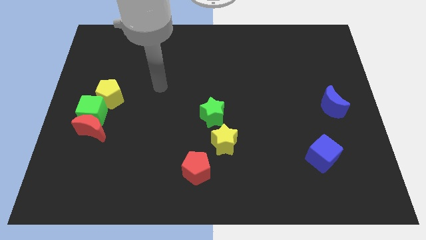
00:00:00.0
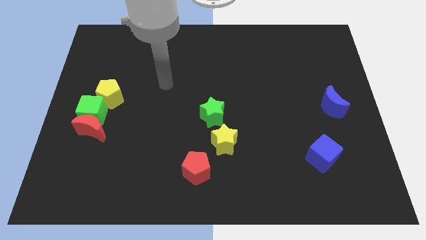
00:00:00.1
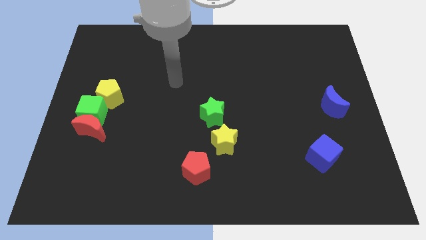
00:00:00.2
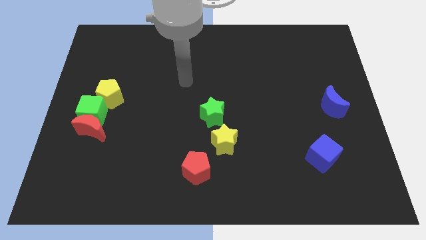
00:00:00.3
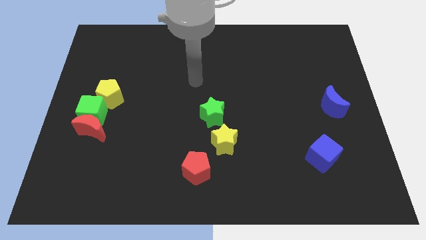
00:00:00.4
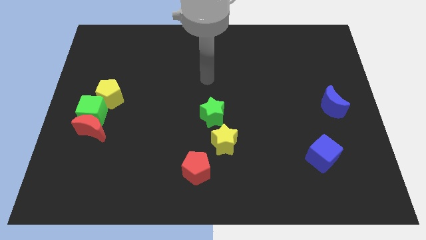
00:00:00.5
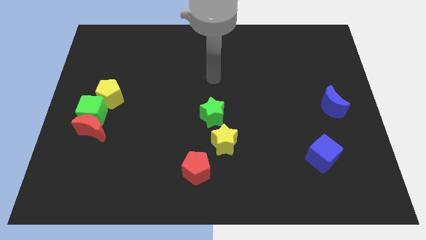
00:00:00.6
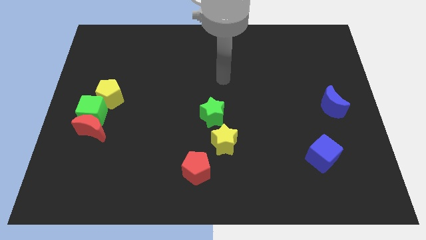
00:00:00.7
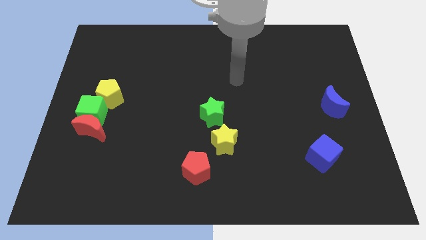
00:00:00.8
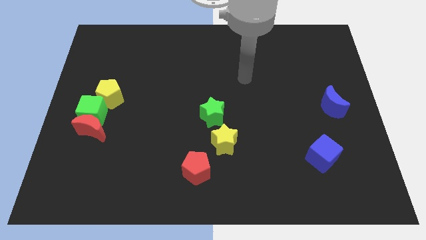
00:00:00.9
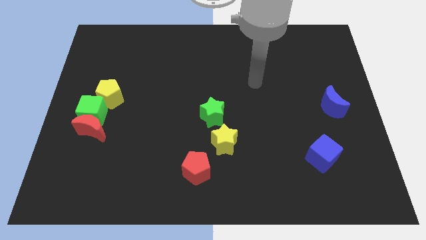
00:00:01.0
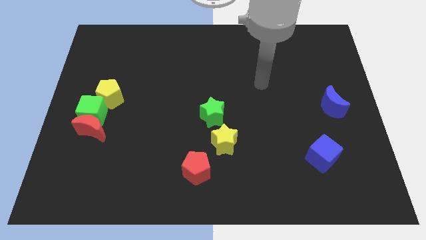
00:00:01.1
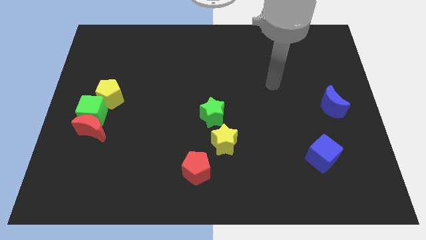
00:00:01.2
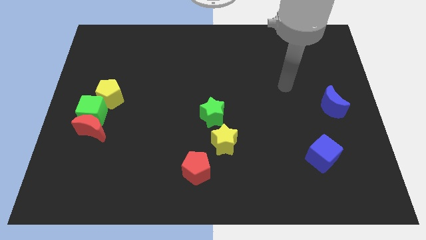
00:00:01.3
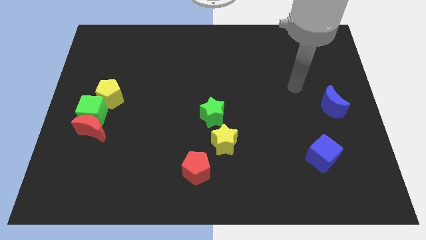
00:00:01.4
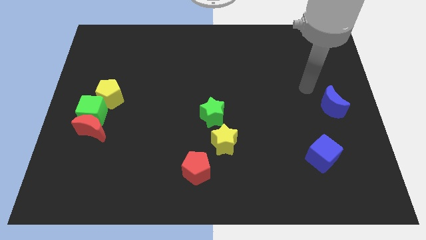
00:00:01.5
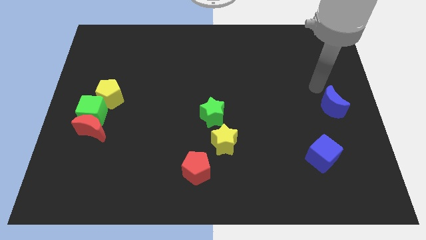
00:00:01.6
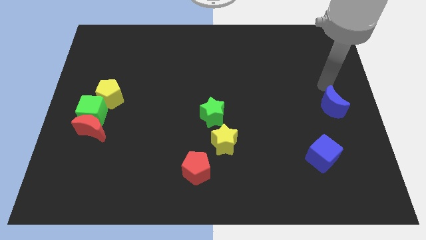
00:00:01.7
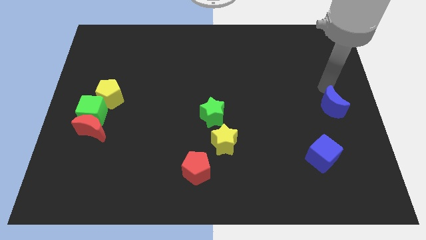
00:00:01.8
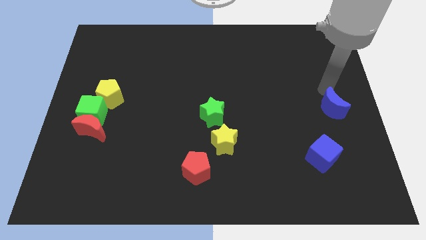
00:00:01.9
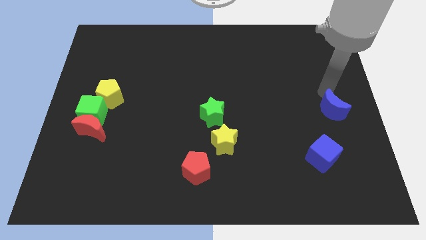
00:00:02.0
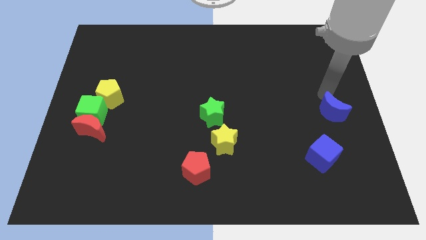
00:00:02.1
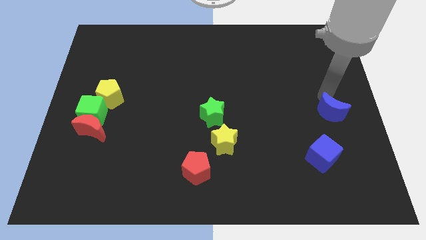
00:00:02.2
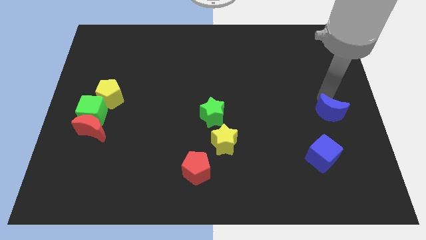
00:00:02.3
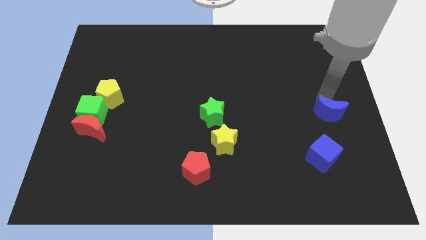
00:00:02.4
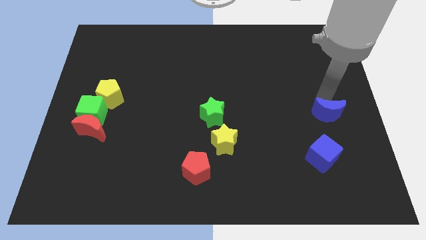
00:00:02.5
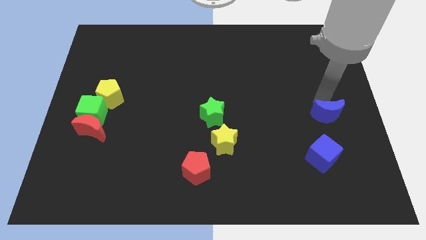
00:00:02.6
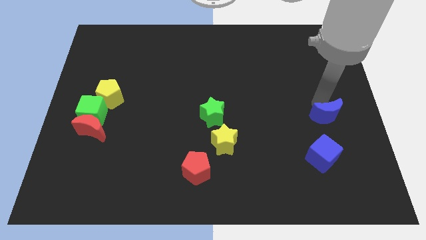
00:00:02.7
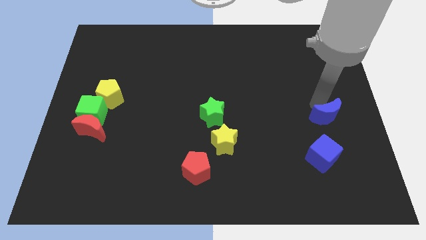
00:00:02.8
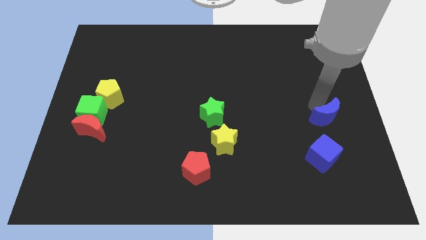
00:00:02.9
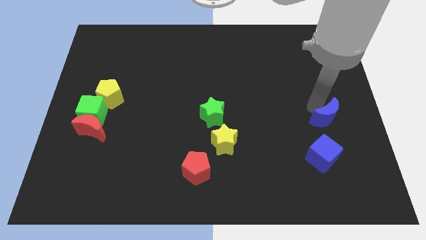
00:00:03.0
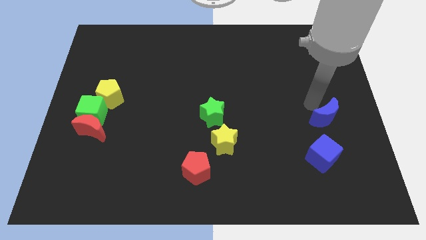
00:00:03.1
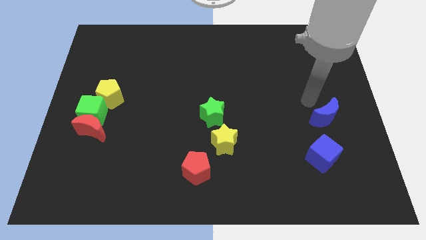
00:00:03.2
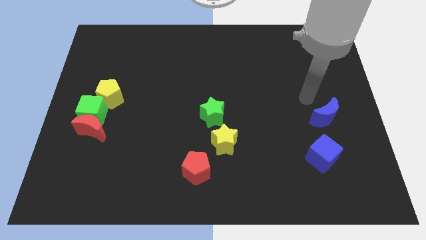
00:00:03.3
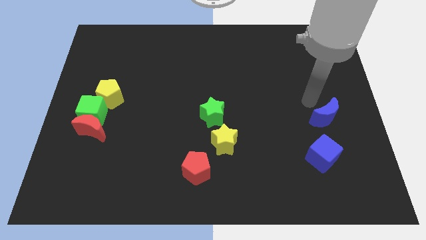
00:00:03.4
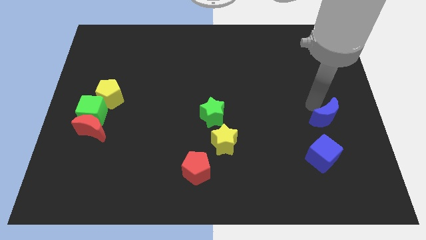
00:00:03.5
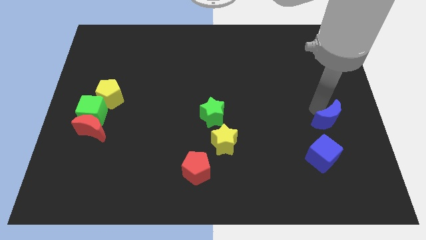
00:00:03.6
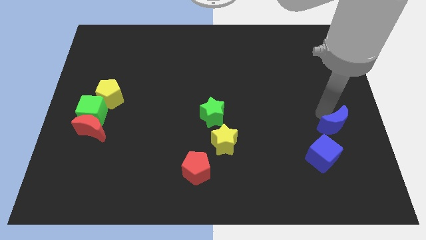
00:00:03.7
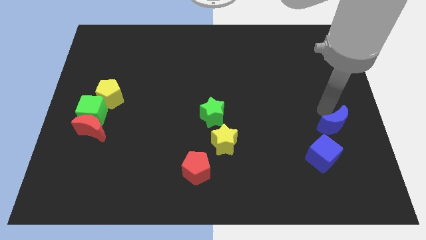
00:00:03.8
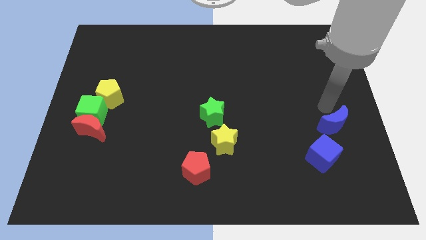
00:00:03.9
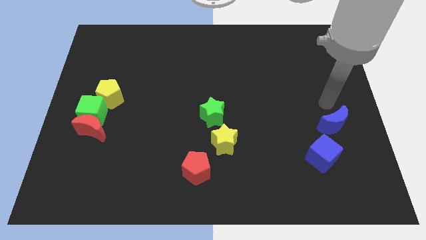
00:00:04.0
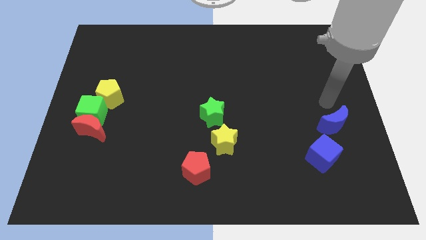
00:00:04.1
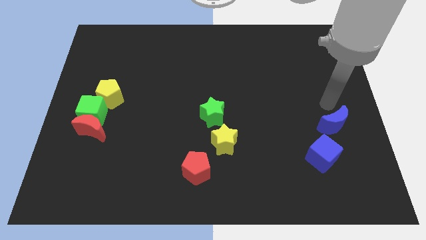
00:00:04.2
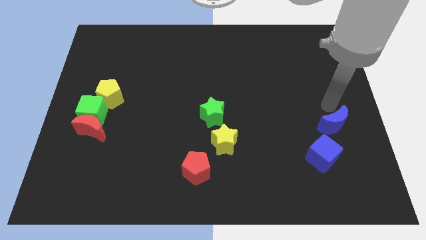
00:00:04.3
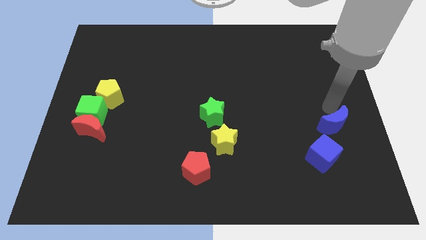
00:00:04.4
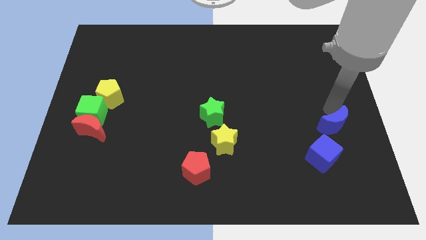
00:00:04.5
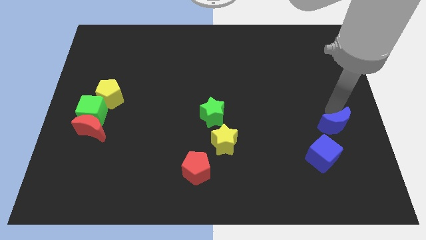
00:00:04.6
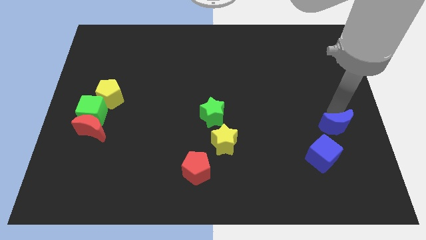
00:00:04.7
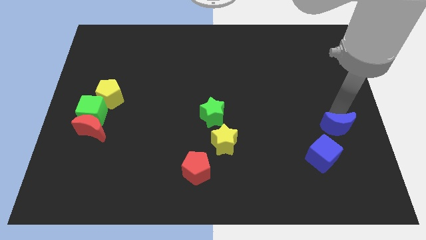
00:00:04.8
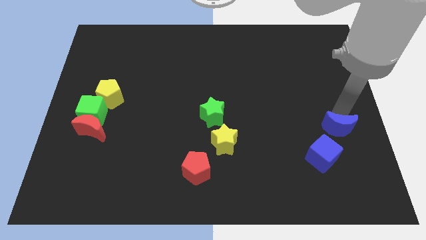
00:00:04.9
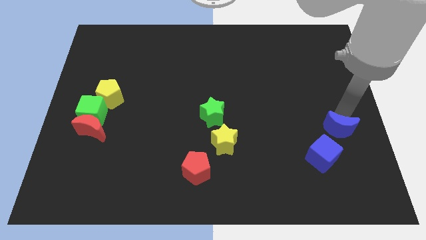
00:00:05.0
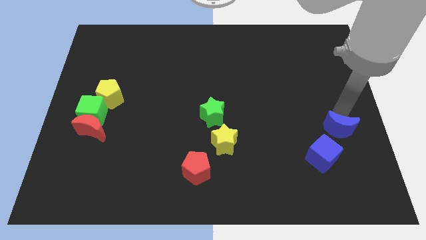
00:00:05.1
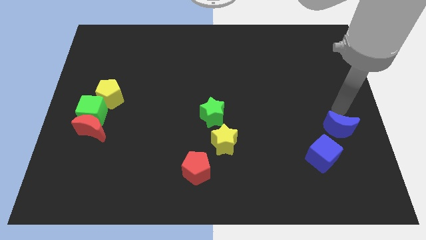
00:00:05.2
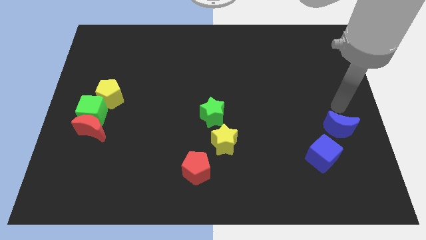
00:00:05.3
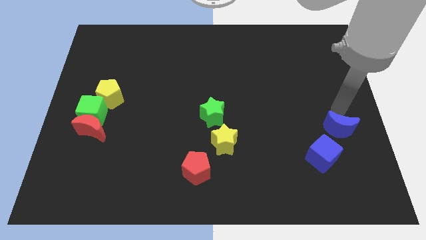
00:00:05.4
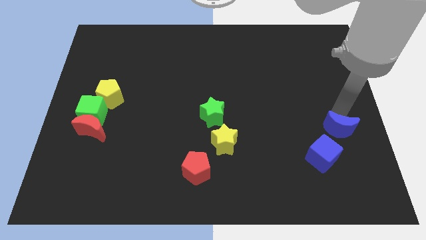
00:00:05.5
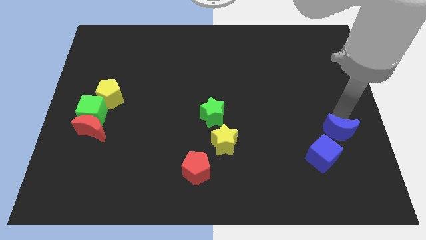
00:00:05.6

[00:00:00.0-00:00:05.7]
move the blue moon a little downwards

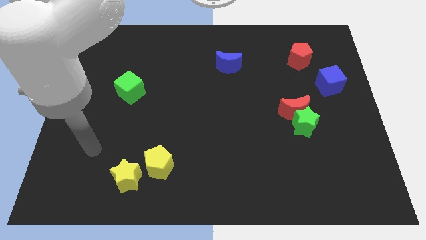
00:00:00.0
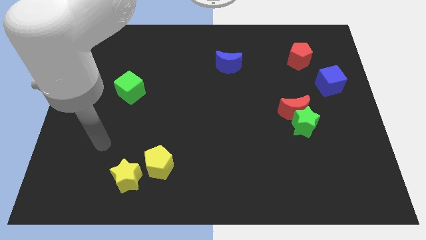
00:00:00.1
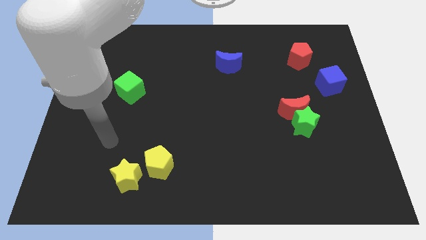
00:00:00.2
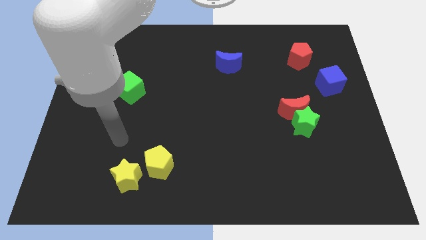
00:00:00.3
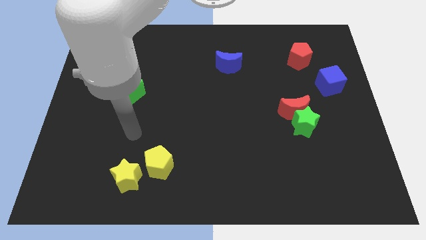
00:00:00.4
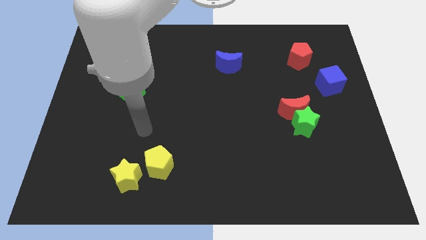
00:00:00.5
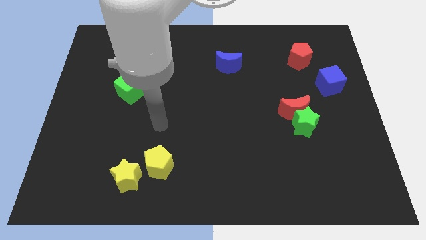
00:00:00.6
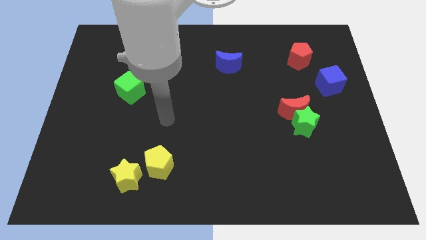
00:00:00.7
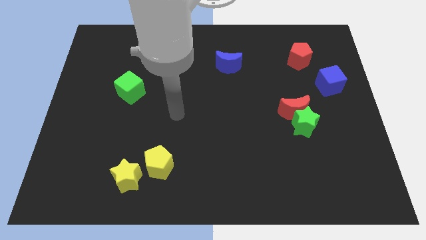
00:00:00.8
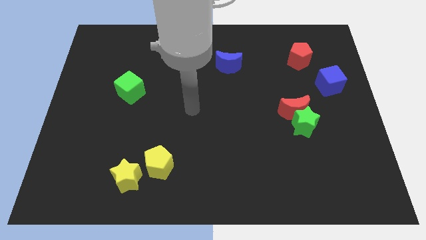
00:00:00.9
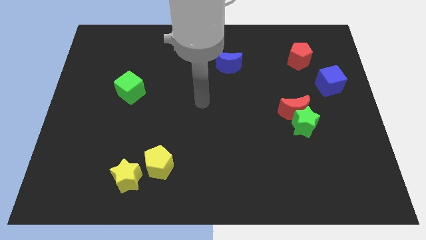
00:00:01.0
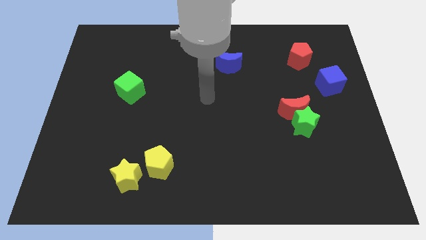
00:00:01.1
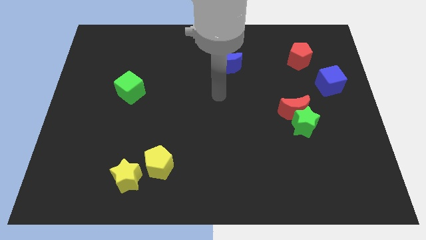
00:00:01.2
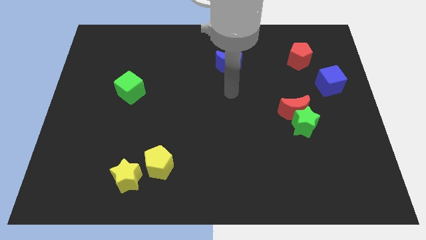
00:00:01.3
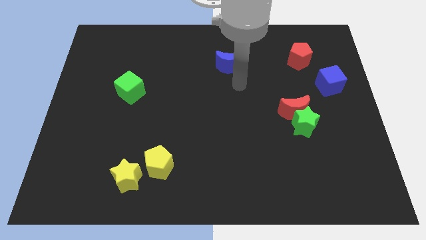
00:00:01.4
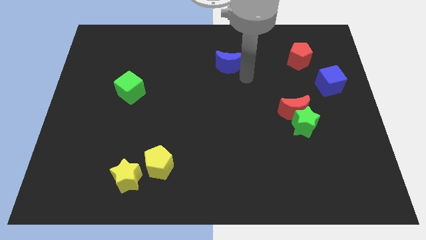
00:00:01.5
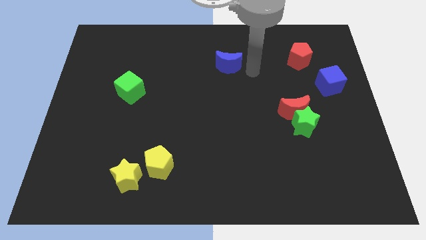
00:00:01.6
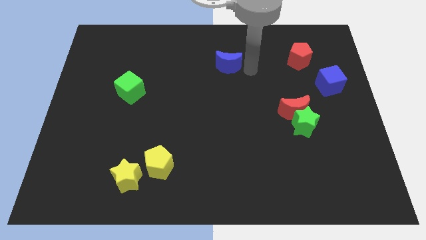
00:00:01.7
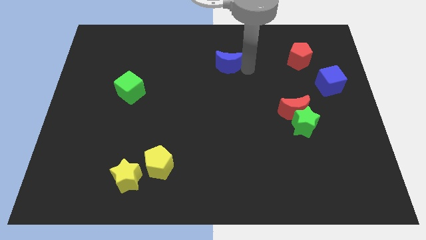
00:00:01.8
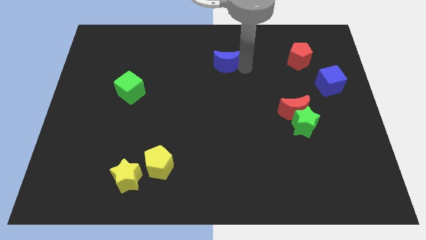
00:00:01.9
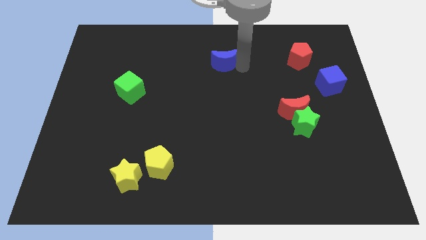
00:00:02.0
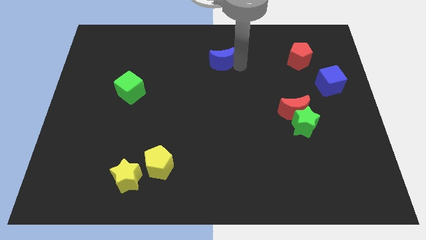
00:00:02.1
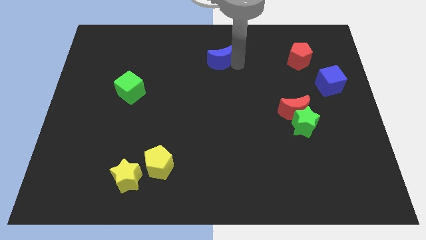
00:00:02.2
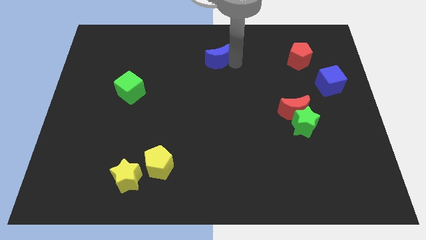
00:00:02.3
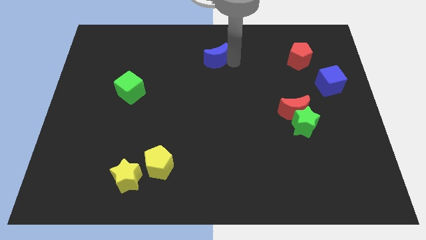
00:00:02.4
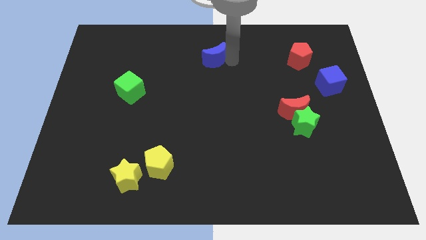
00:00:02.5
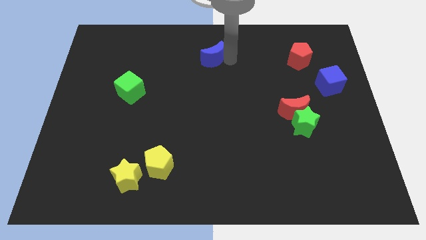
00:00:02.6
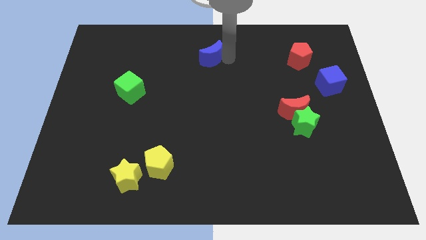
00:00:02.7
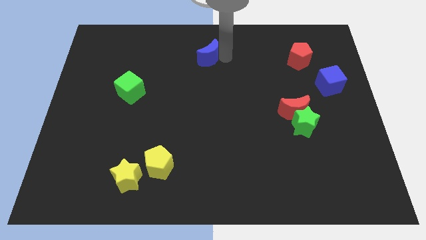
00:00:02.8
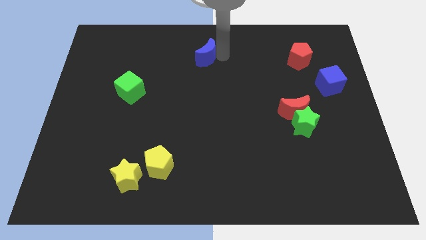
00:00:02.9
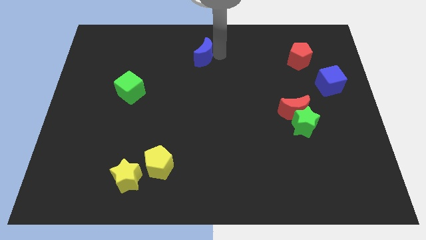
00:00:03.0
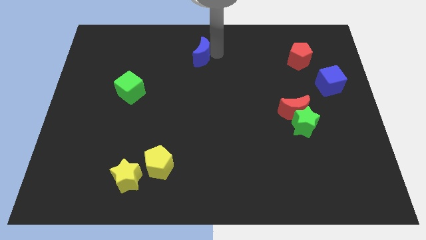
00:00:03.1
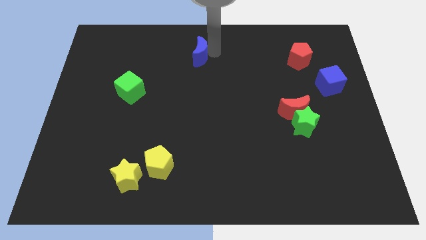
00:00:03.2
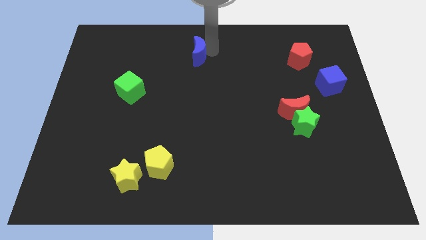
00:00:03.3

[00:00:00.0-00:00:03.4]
slide the blue moon somewhat to the left
